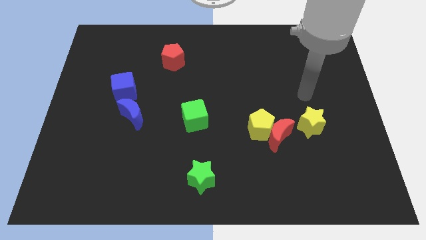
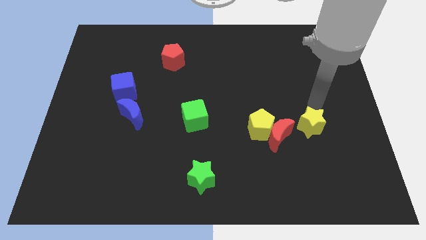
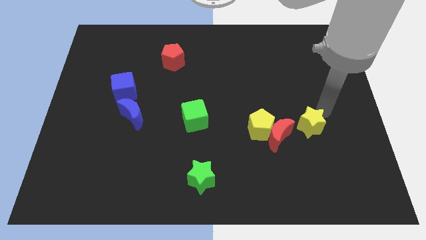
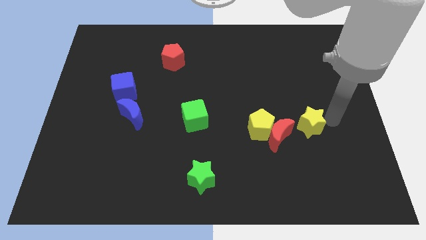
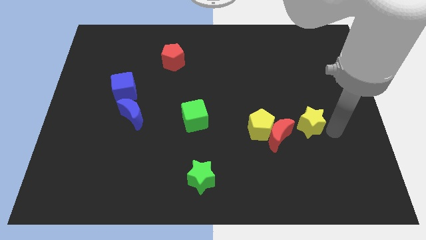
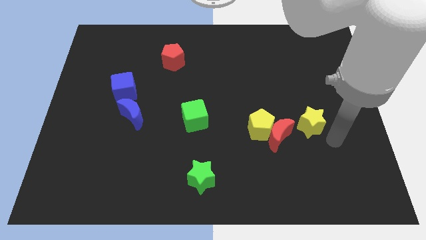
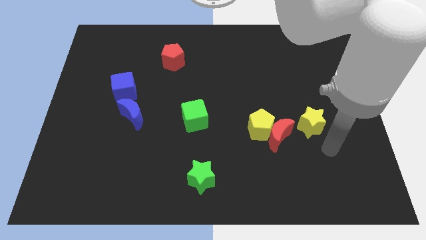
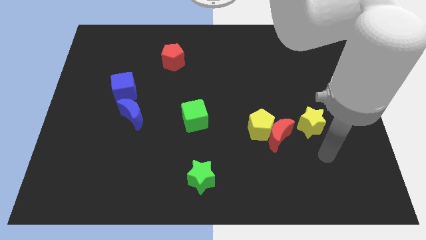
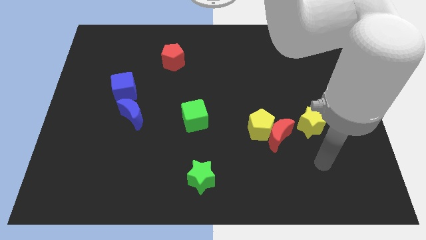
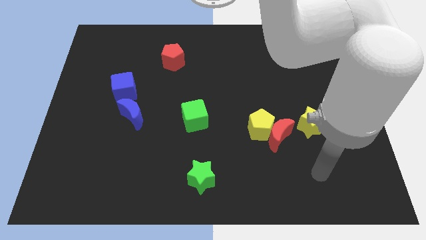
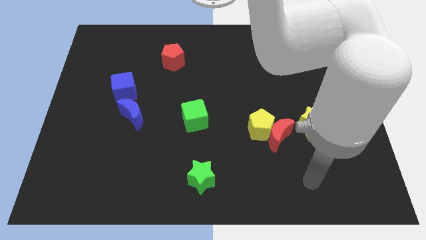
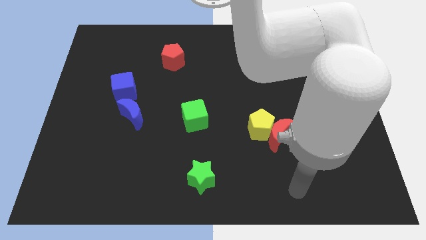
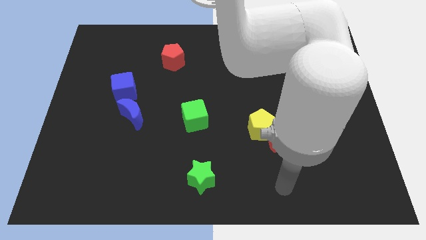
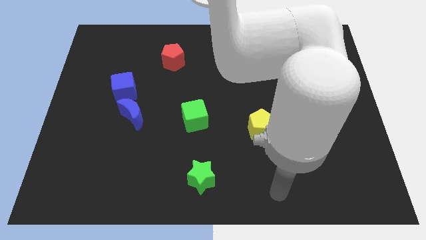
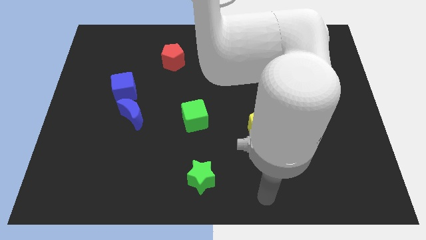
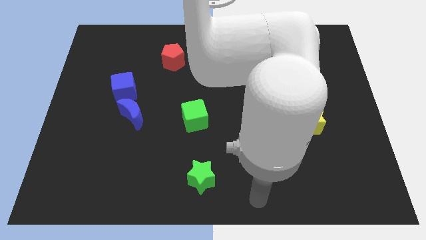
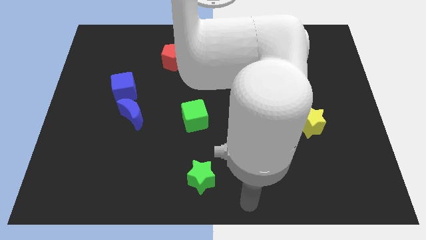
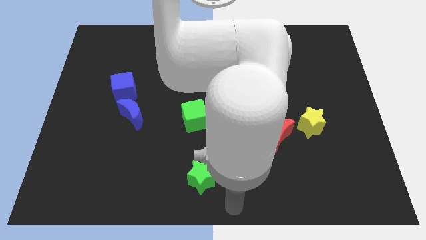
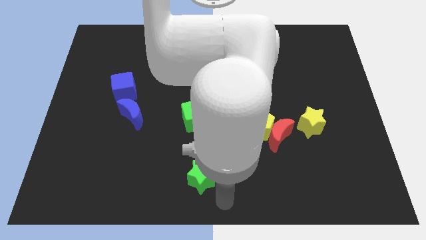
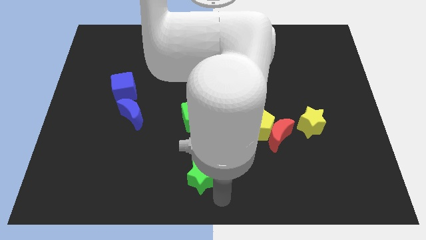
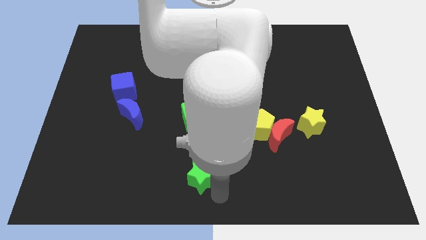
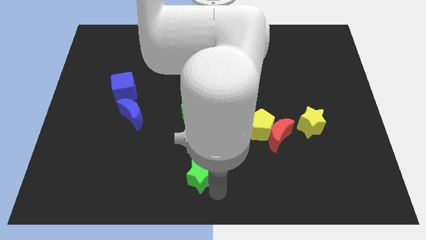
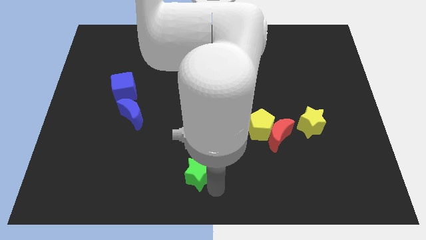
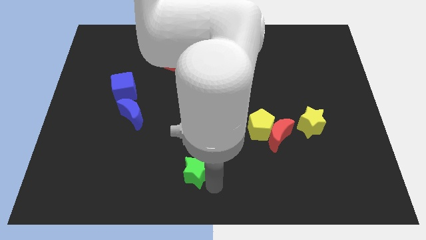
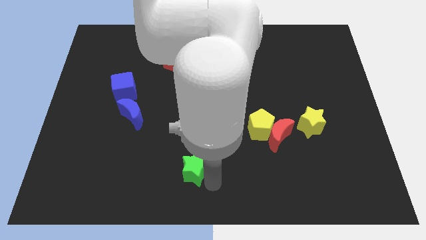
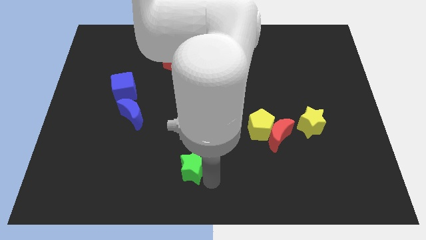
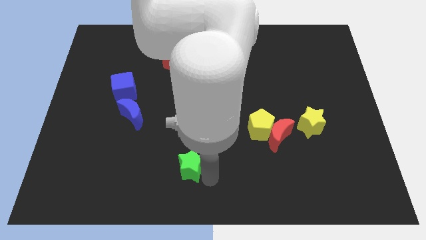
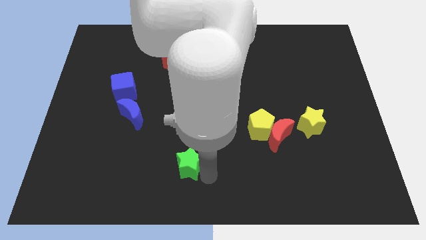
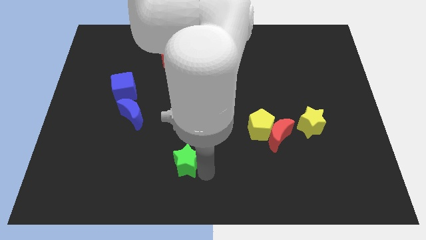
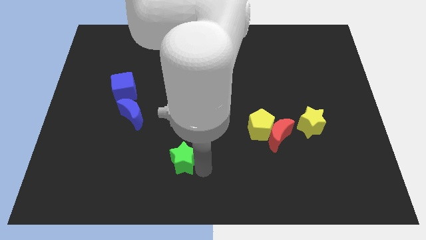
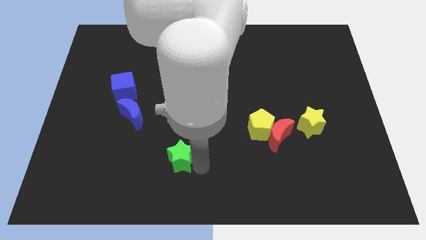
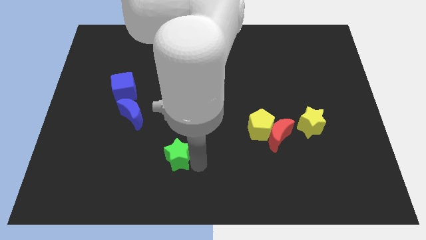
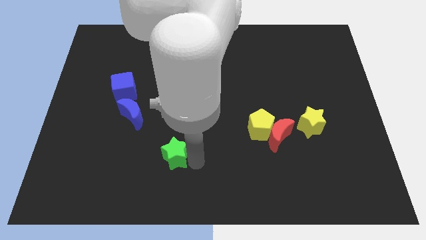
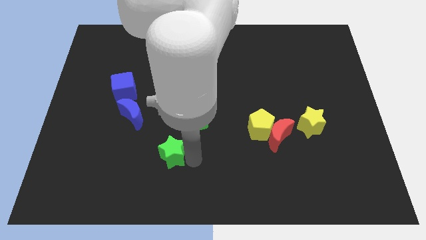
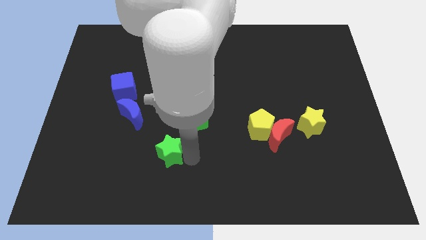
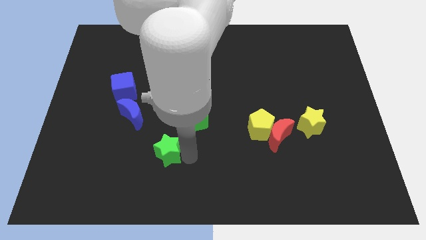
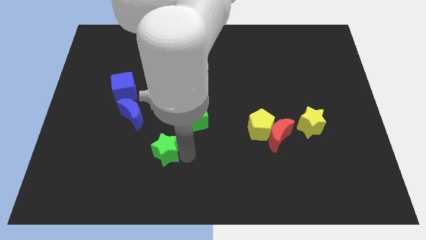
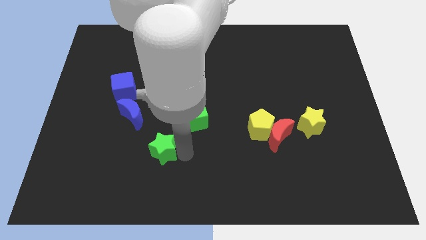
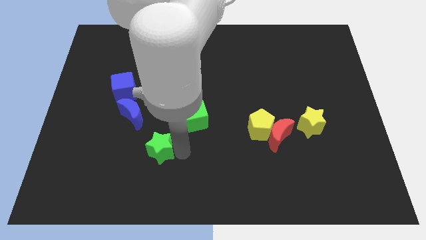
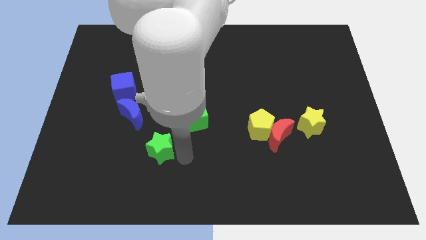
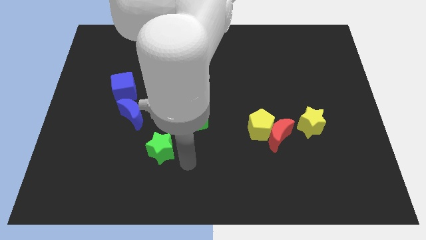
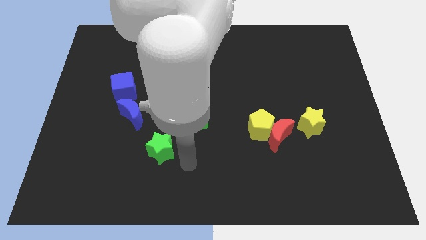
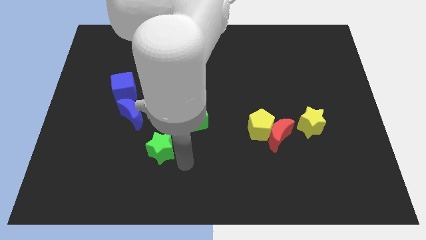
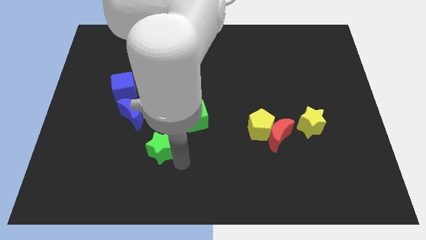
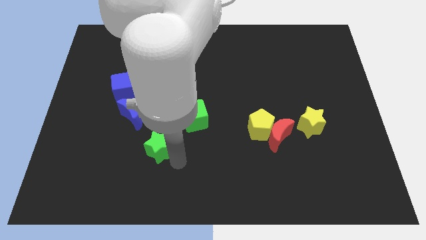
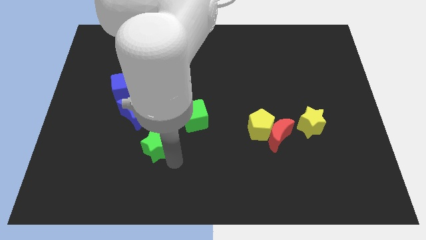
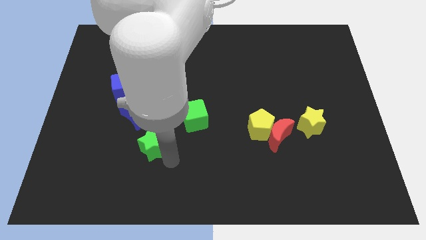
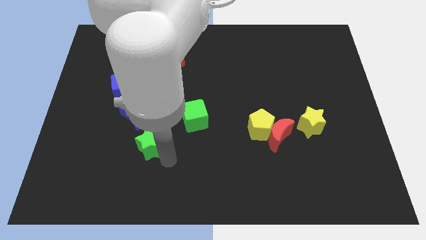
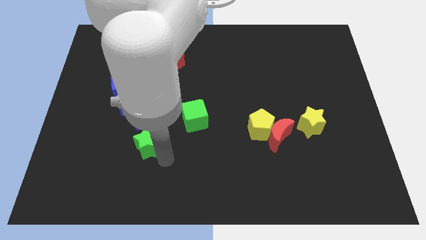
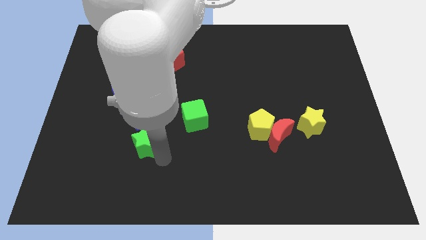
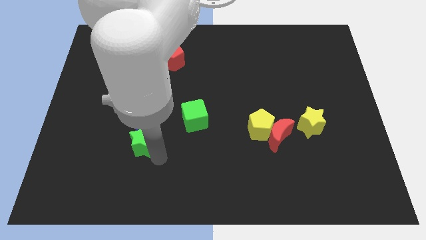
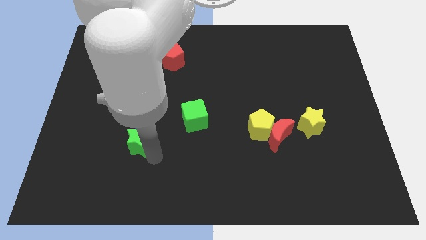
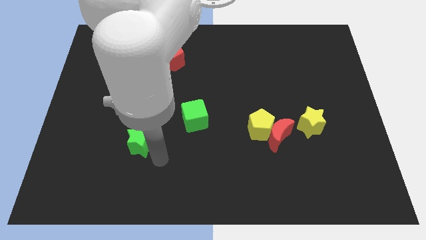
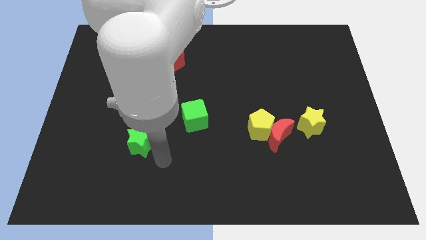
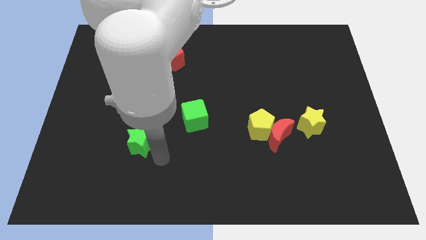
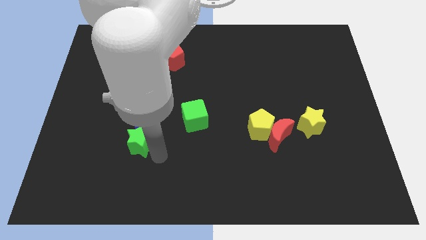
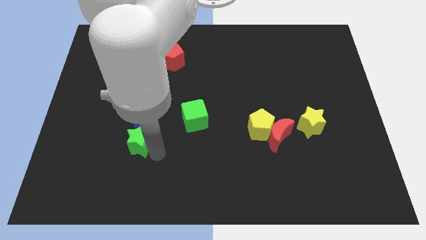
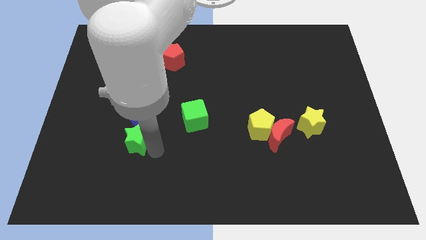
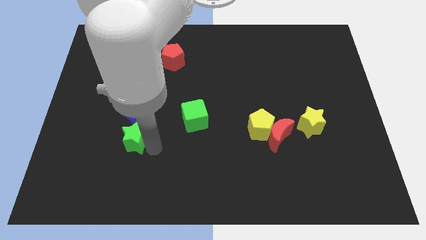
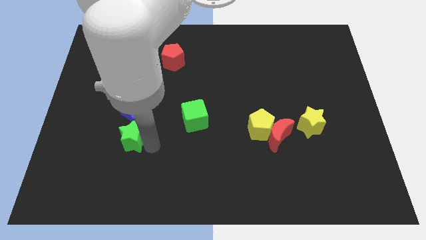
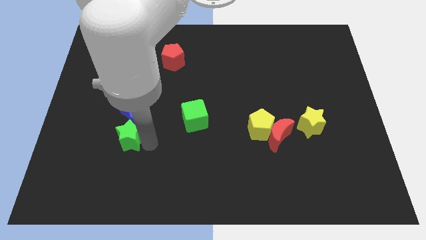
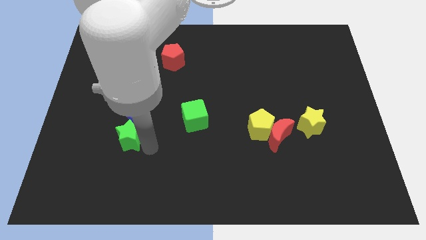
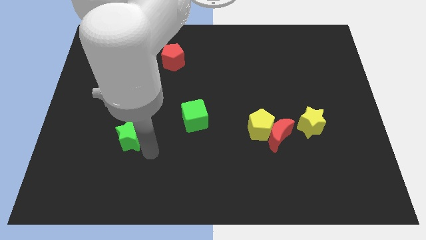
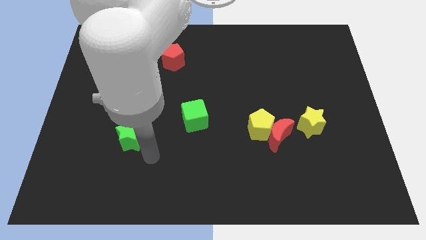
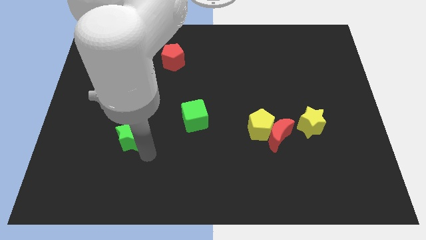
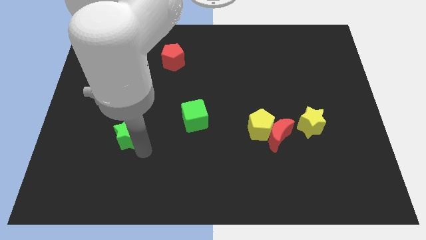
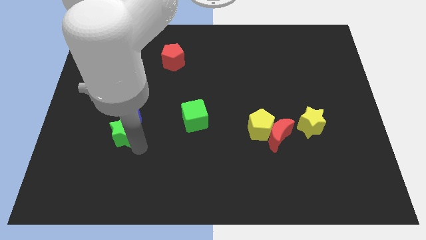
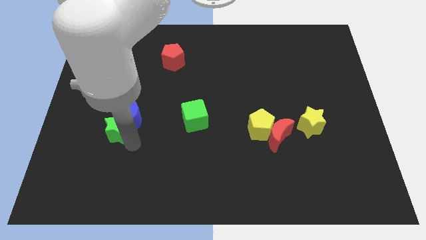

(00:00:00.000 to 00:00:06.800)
move the green star upwards and then left

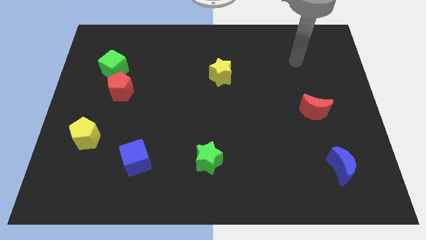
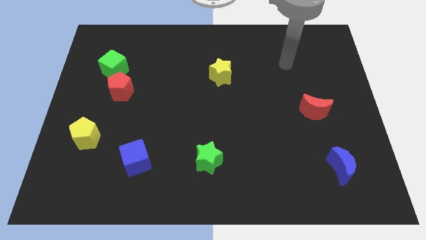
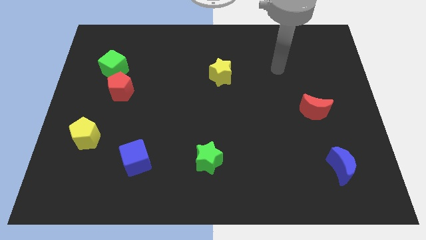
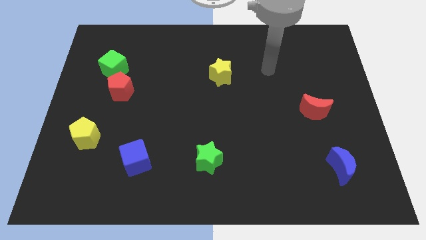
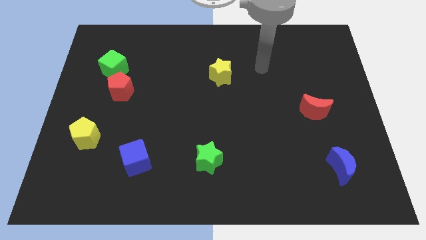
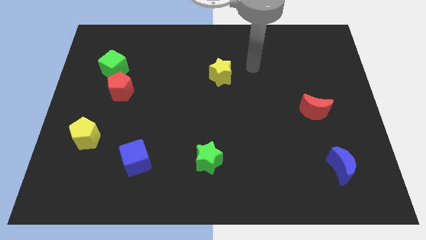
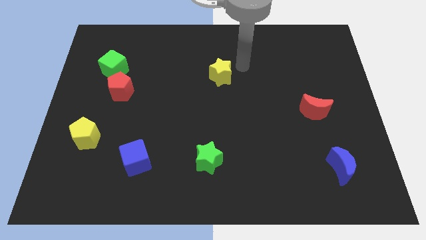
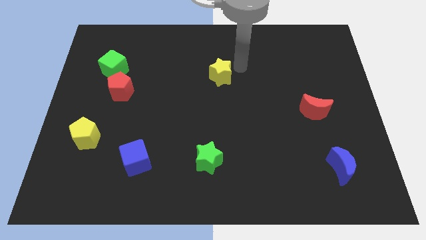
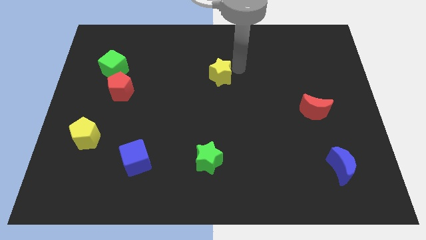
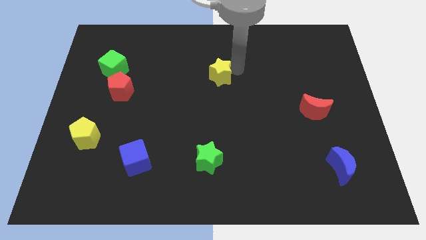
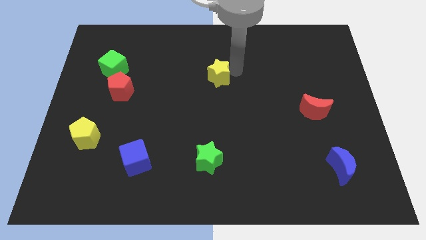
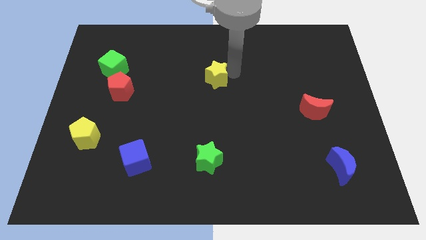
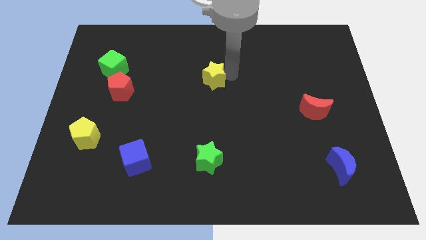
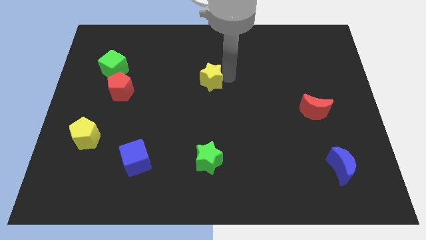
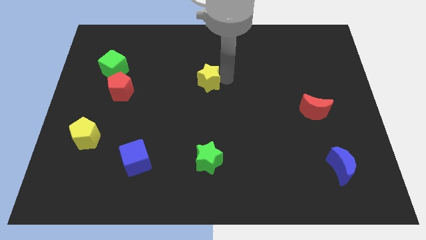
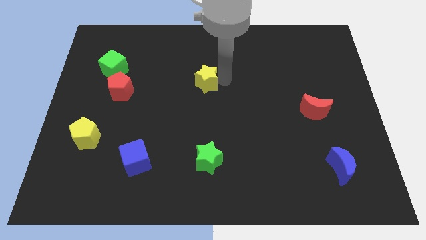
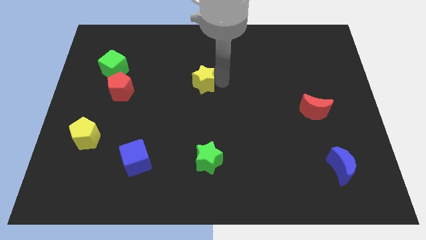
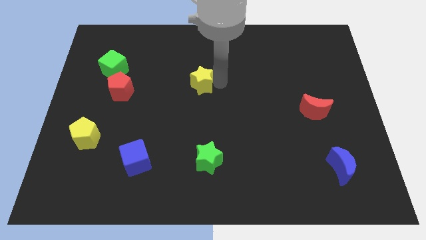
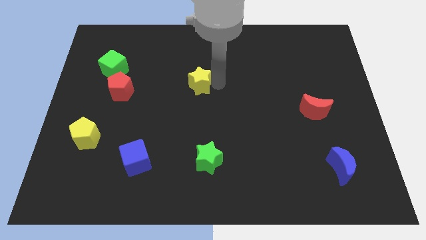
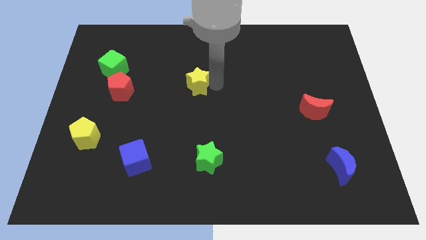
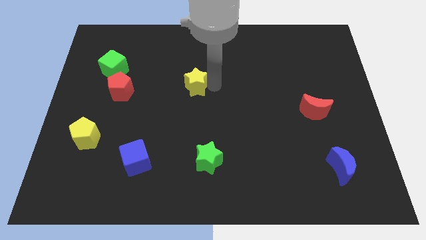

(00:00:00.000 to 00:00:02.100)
push the yellow star down and then left a little
